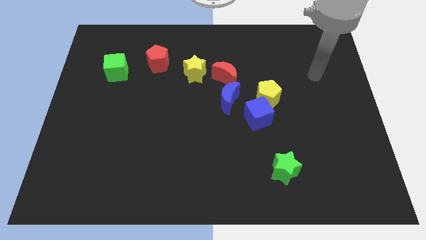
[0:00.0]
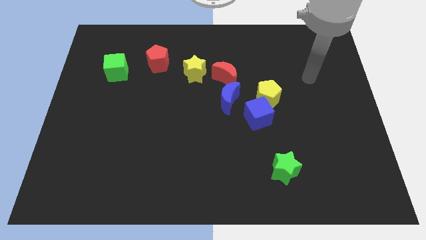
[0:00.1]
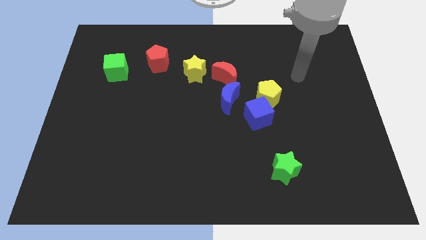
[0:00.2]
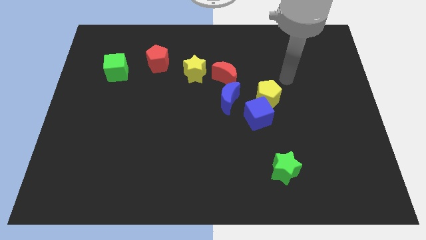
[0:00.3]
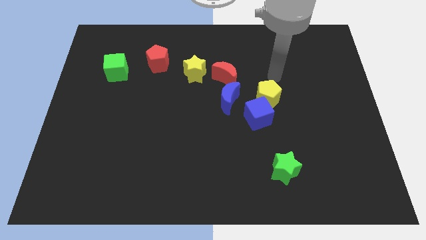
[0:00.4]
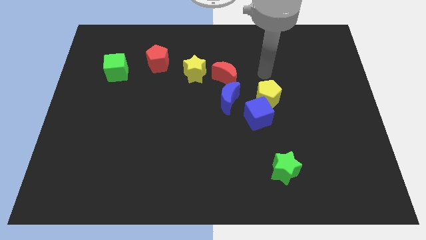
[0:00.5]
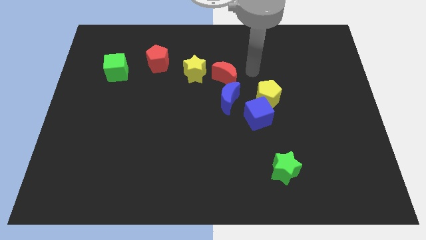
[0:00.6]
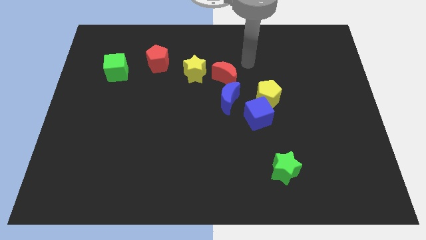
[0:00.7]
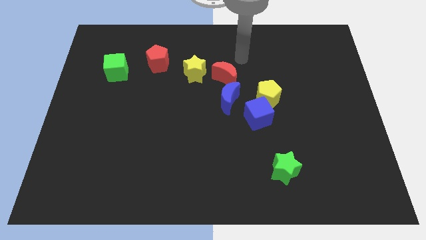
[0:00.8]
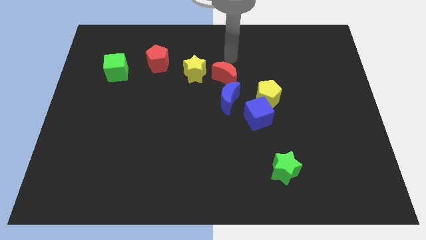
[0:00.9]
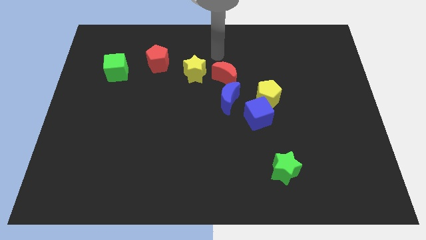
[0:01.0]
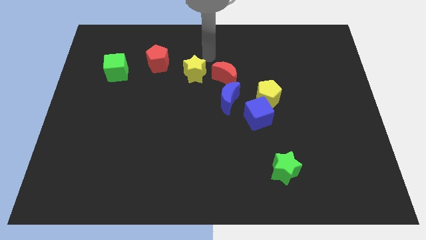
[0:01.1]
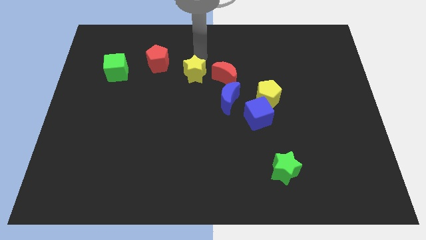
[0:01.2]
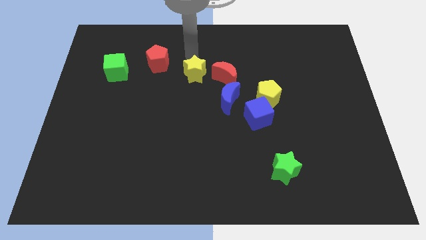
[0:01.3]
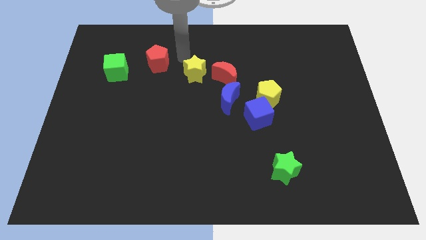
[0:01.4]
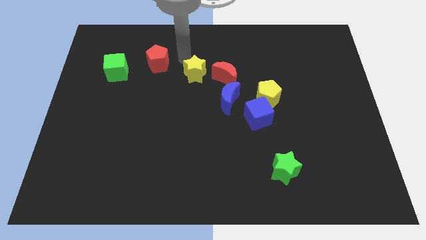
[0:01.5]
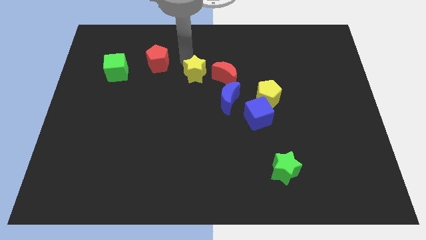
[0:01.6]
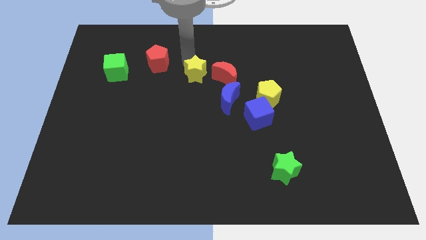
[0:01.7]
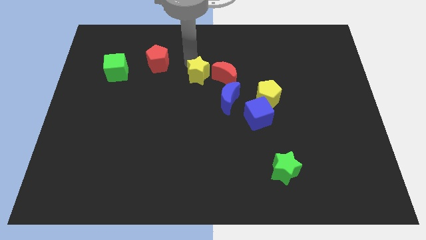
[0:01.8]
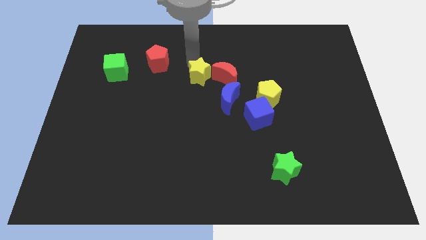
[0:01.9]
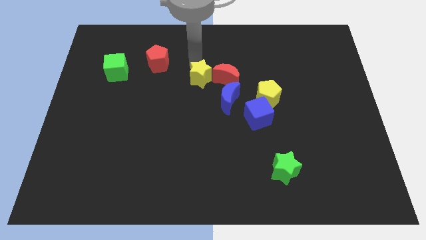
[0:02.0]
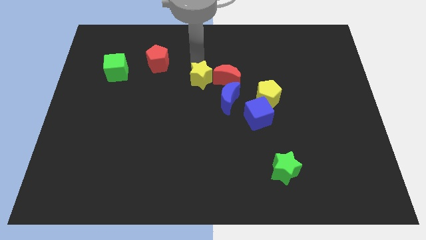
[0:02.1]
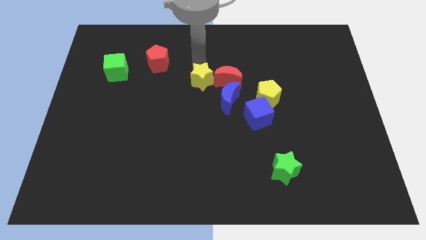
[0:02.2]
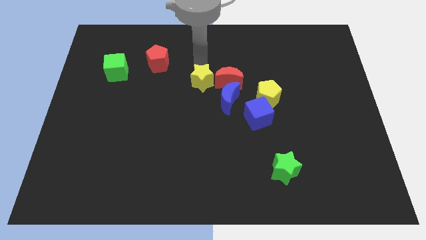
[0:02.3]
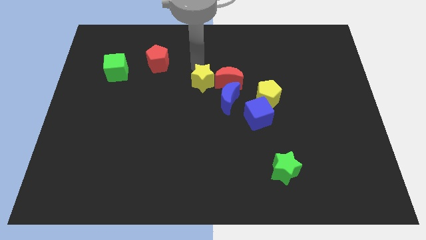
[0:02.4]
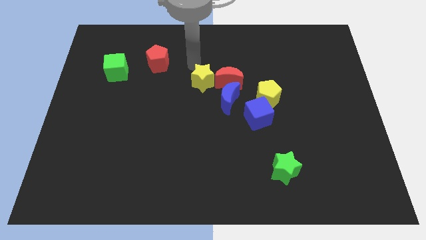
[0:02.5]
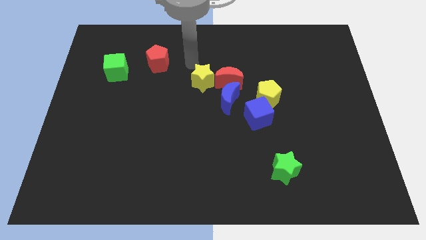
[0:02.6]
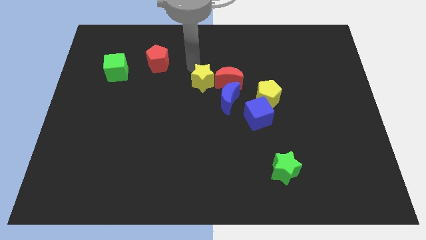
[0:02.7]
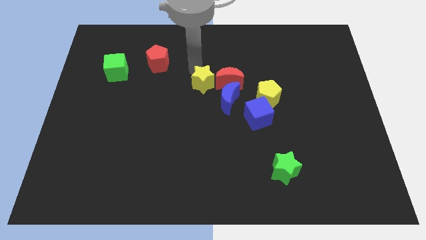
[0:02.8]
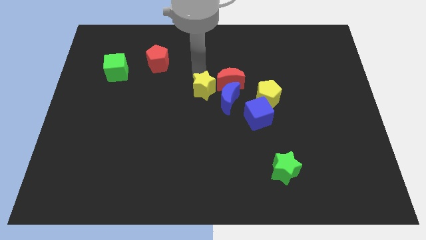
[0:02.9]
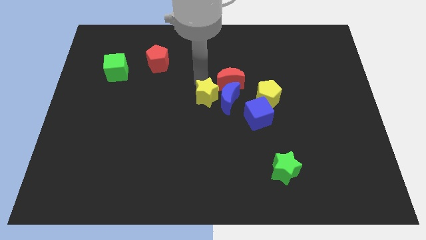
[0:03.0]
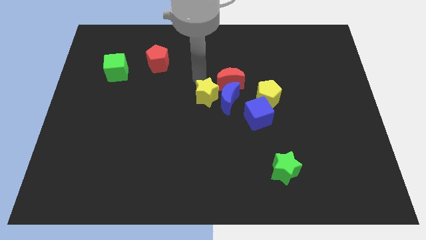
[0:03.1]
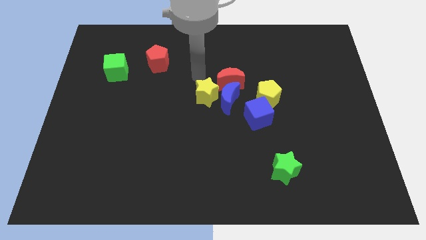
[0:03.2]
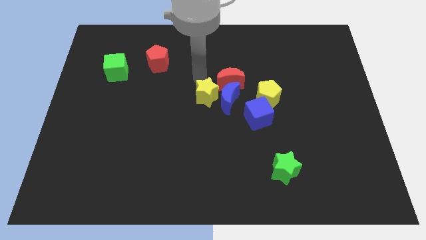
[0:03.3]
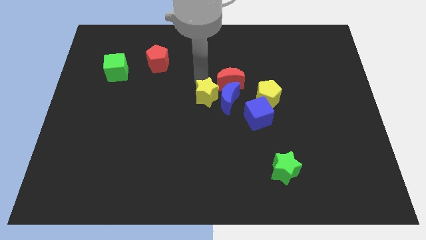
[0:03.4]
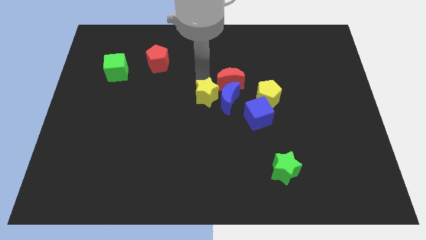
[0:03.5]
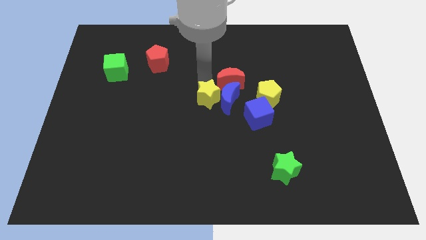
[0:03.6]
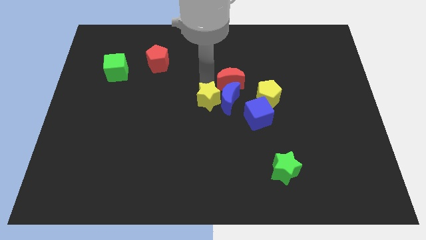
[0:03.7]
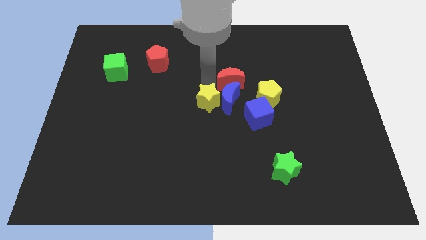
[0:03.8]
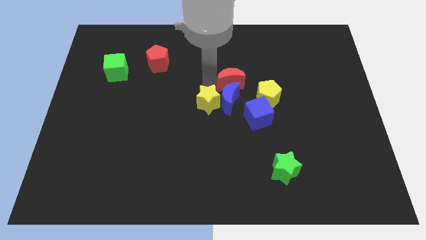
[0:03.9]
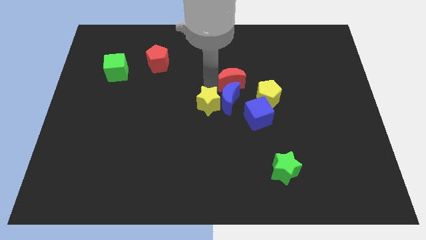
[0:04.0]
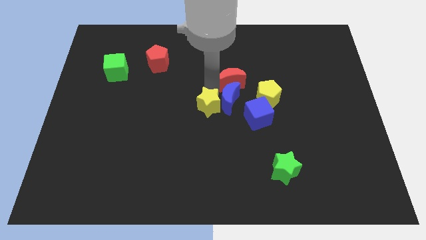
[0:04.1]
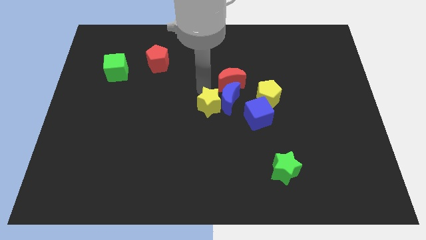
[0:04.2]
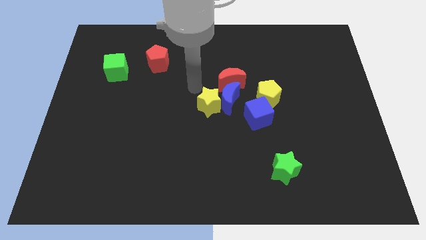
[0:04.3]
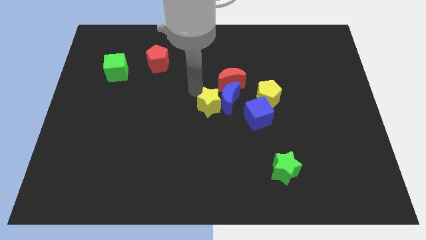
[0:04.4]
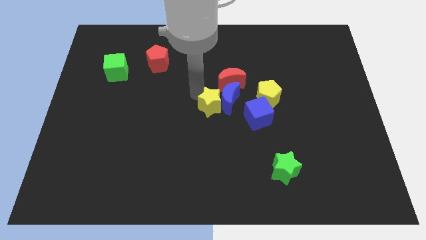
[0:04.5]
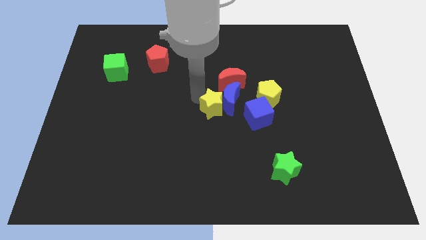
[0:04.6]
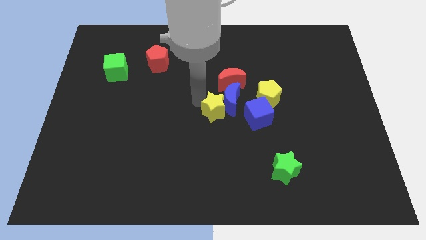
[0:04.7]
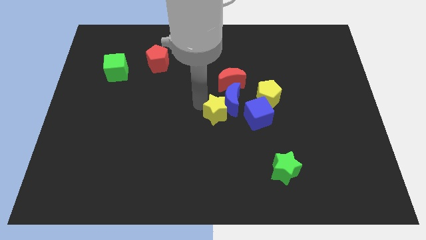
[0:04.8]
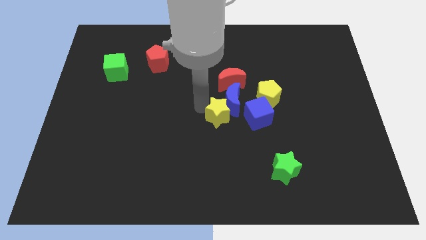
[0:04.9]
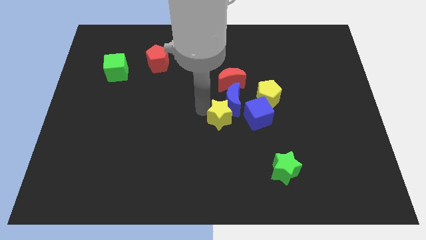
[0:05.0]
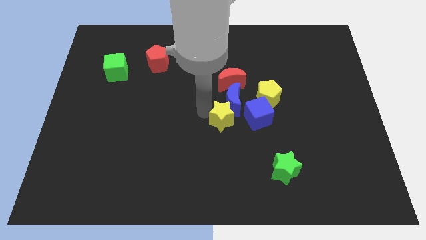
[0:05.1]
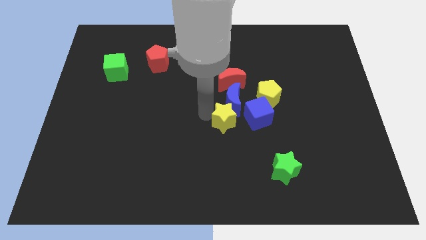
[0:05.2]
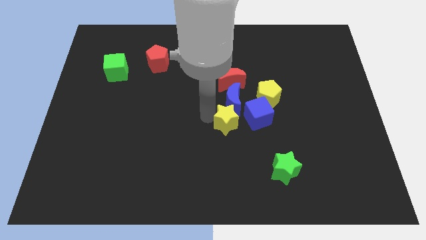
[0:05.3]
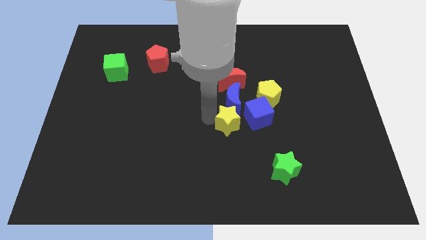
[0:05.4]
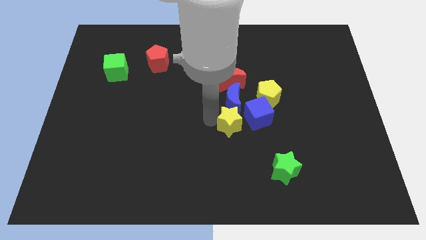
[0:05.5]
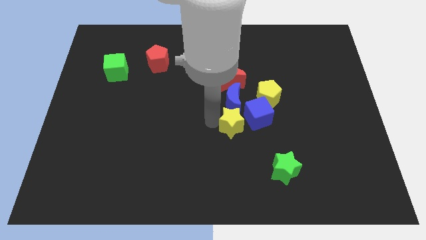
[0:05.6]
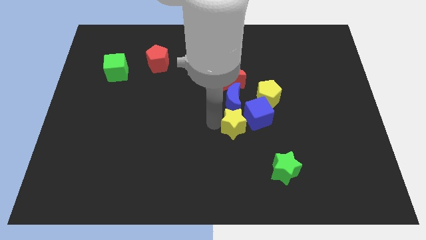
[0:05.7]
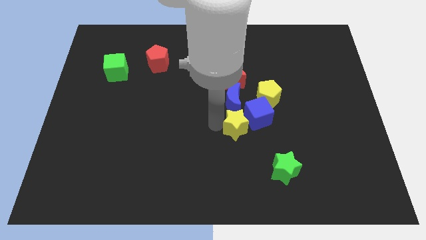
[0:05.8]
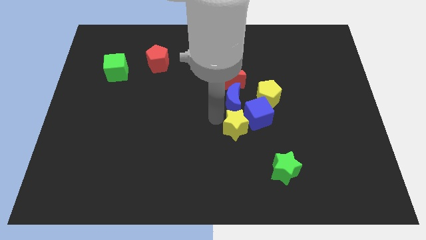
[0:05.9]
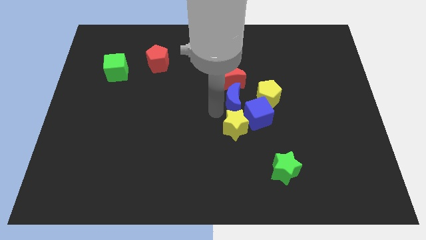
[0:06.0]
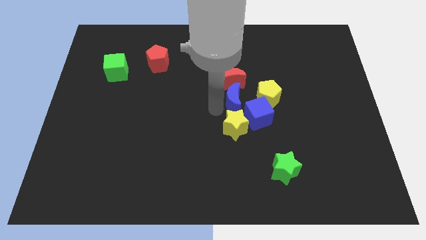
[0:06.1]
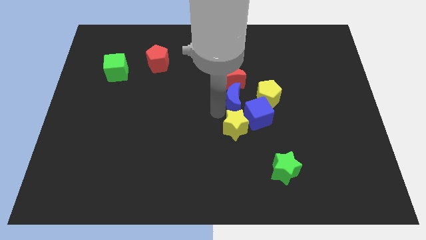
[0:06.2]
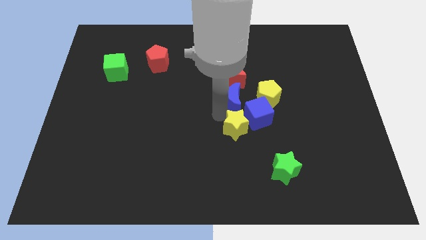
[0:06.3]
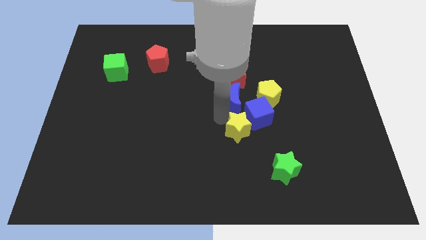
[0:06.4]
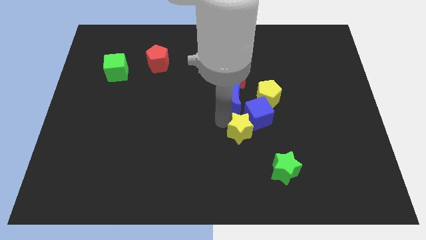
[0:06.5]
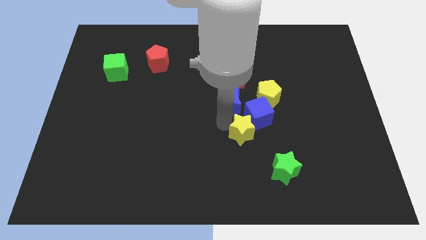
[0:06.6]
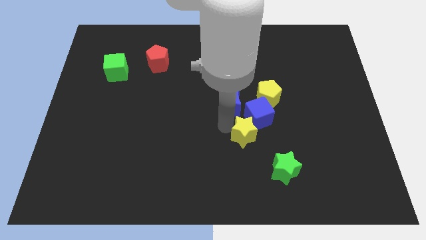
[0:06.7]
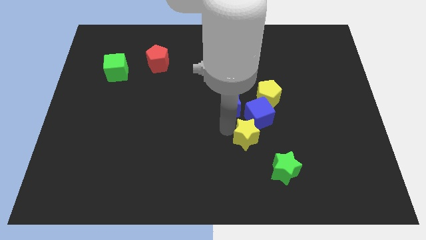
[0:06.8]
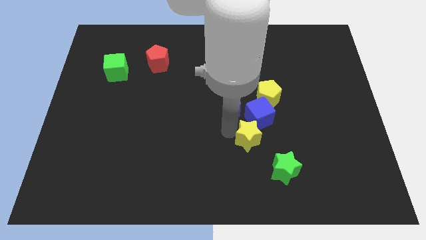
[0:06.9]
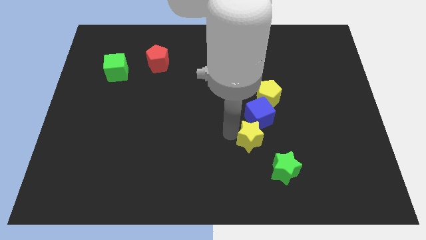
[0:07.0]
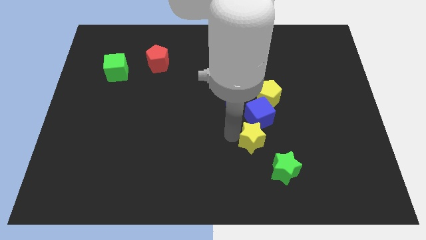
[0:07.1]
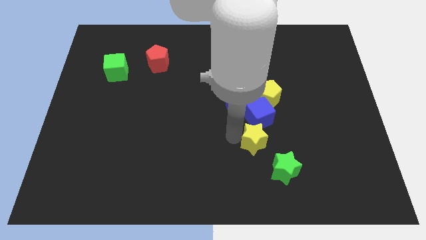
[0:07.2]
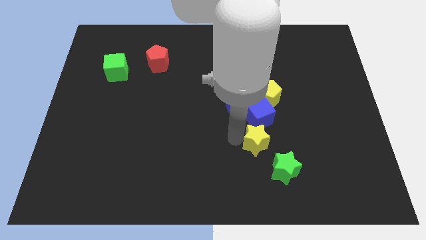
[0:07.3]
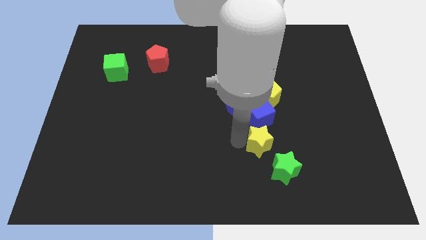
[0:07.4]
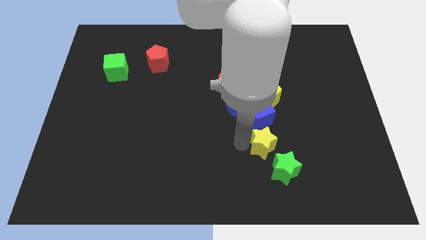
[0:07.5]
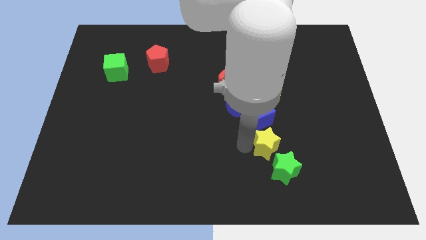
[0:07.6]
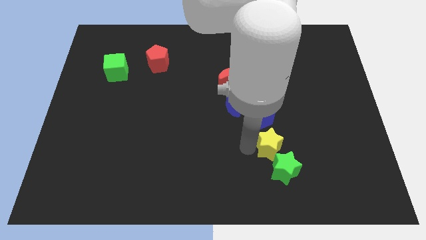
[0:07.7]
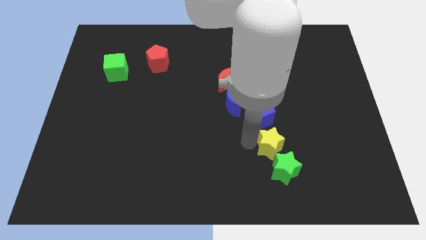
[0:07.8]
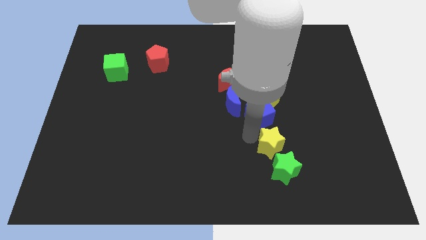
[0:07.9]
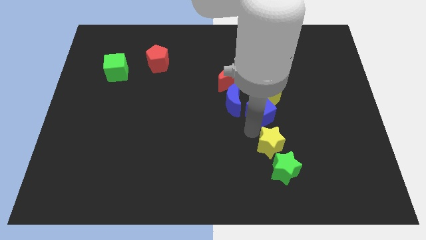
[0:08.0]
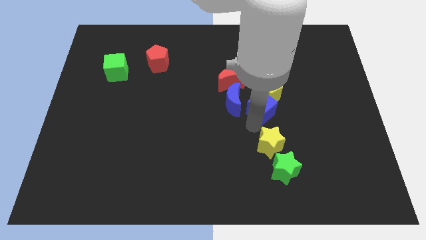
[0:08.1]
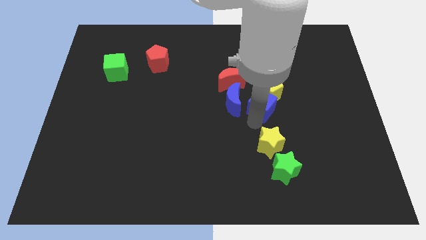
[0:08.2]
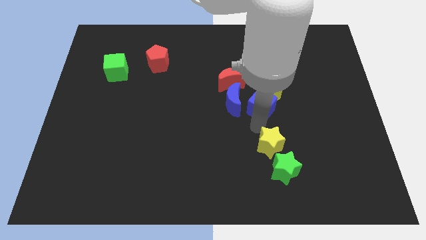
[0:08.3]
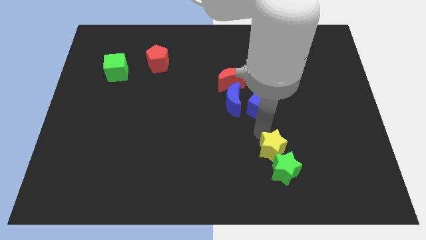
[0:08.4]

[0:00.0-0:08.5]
move the yellow star to the green star
